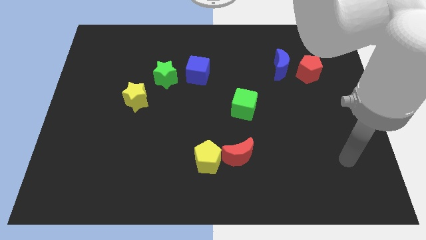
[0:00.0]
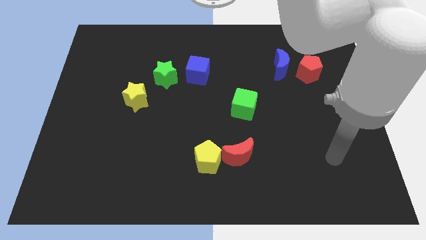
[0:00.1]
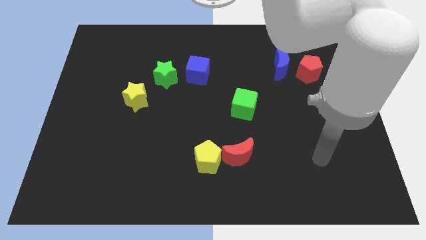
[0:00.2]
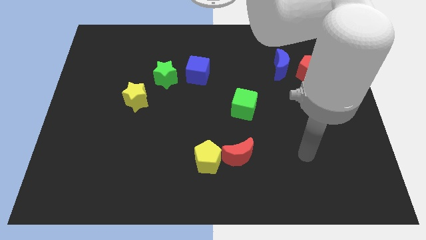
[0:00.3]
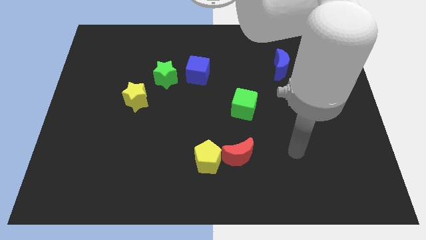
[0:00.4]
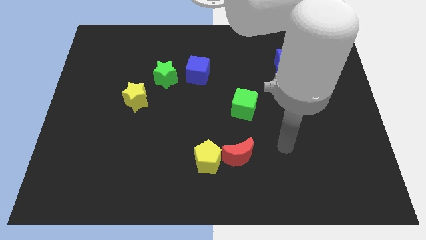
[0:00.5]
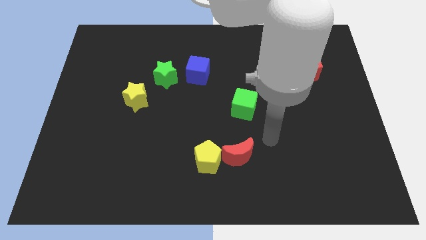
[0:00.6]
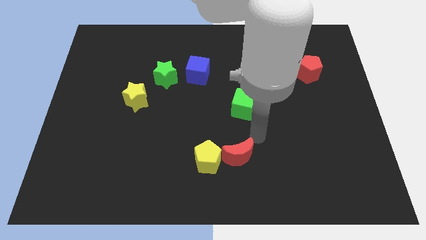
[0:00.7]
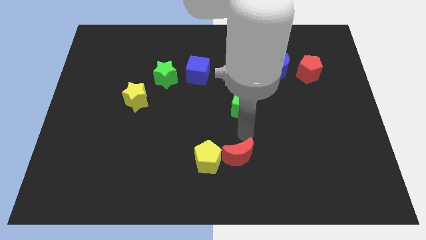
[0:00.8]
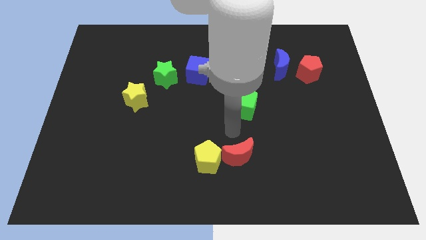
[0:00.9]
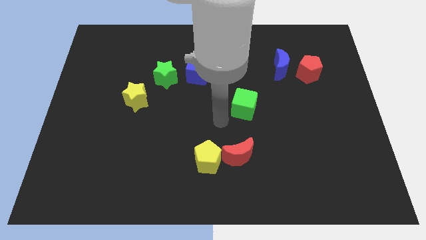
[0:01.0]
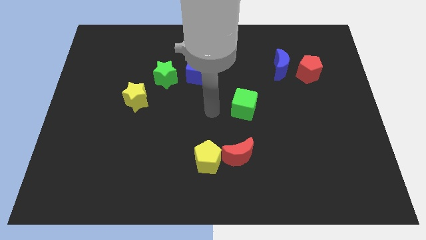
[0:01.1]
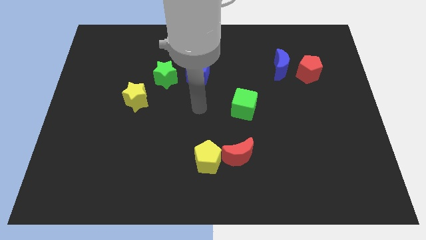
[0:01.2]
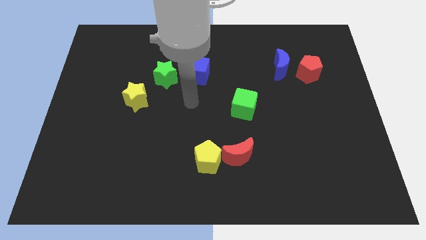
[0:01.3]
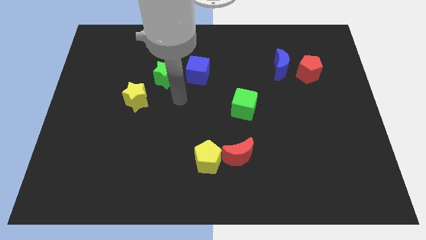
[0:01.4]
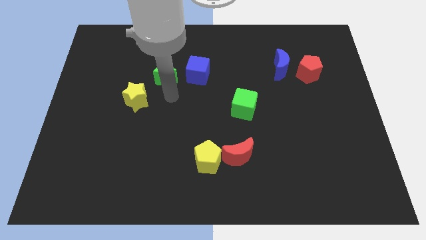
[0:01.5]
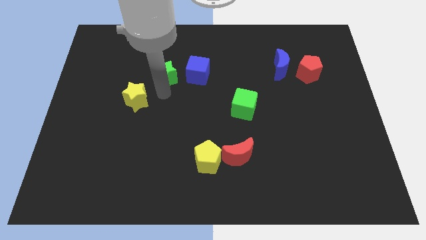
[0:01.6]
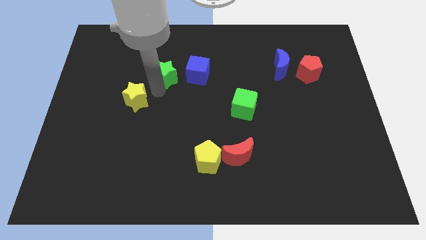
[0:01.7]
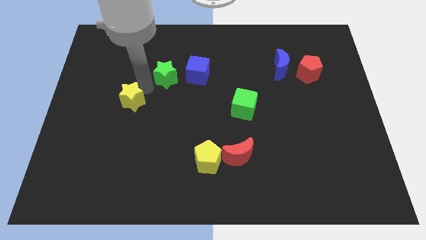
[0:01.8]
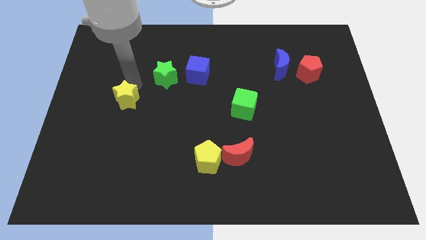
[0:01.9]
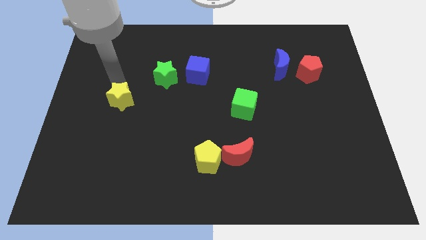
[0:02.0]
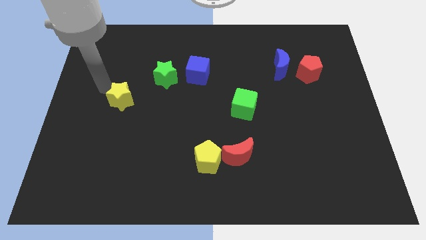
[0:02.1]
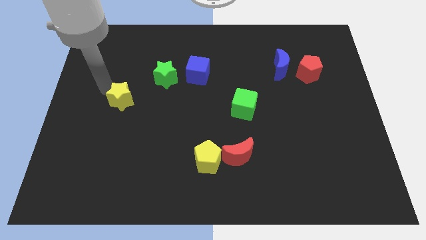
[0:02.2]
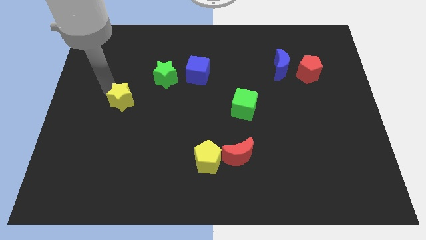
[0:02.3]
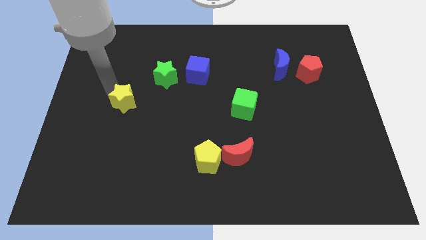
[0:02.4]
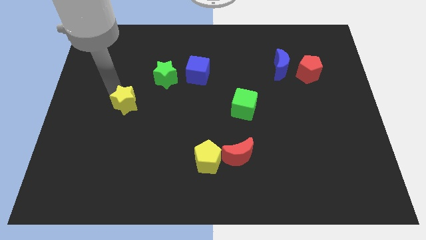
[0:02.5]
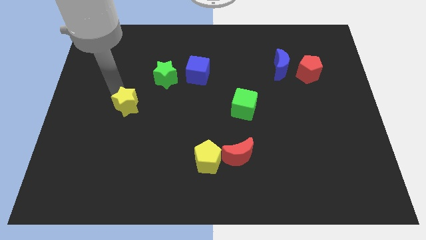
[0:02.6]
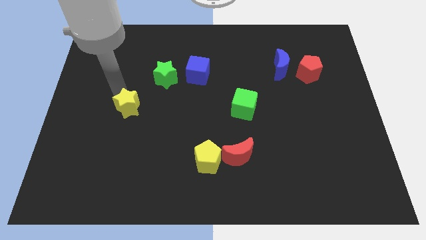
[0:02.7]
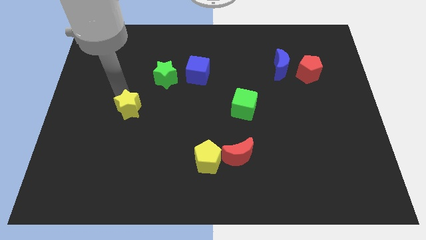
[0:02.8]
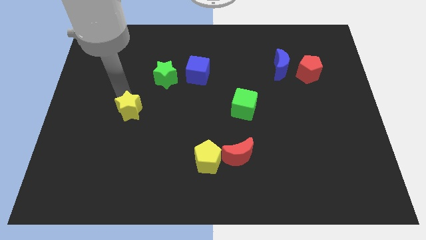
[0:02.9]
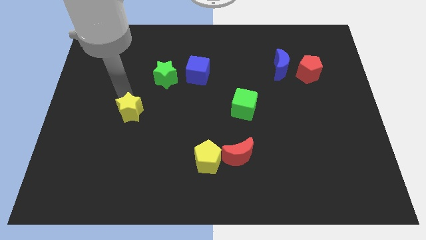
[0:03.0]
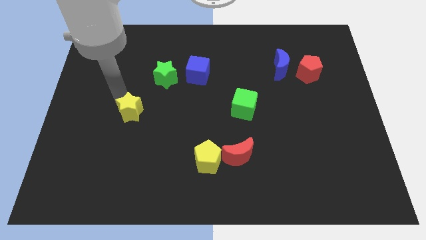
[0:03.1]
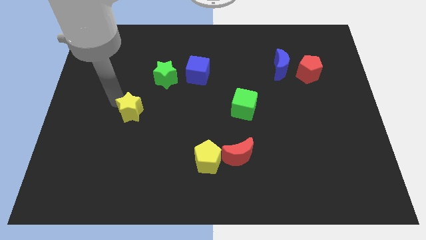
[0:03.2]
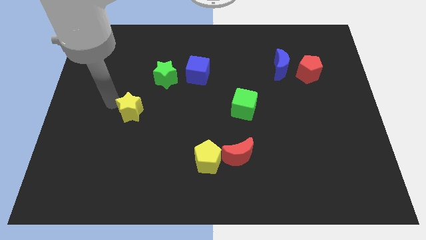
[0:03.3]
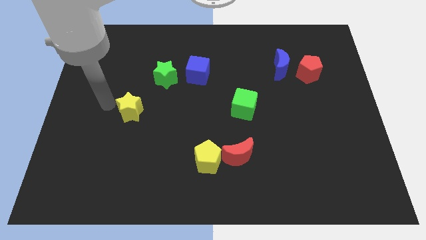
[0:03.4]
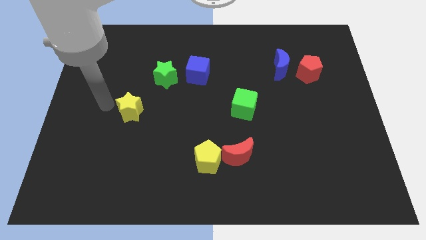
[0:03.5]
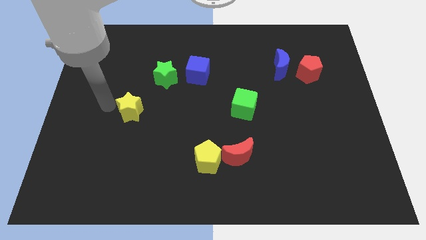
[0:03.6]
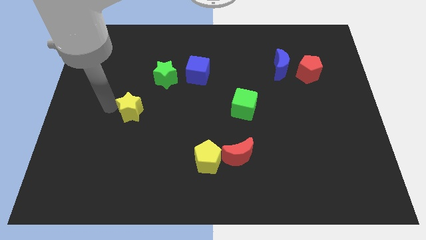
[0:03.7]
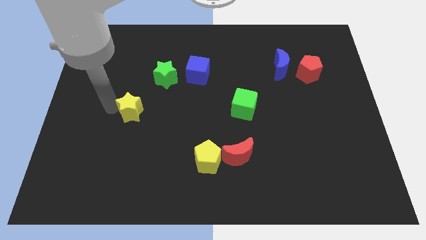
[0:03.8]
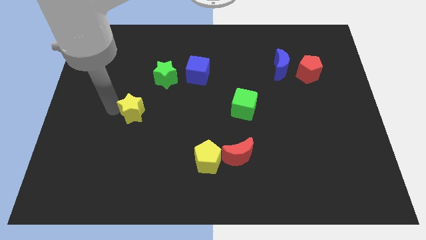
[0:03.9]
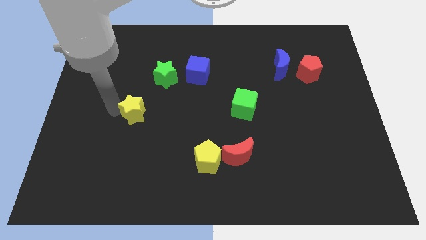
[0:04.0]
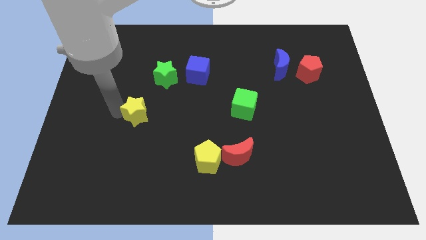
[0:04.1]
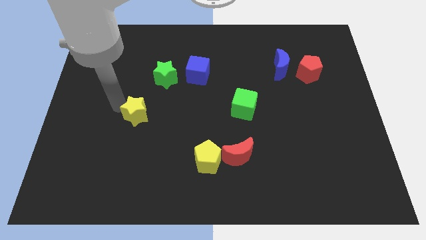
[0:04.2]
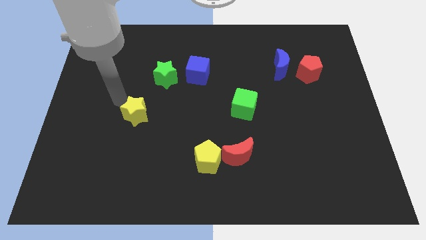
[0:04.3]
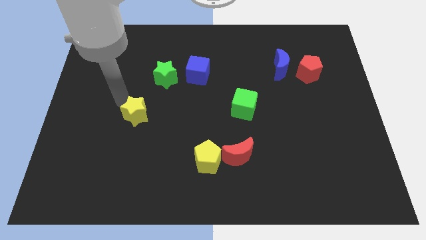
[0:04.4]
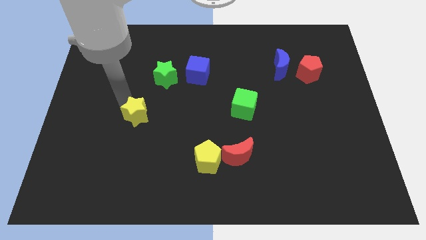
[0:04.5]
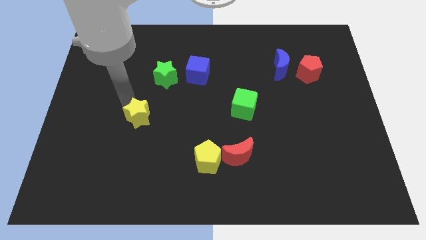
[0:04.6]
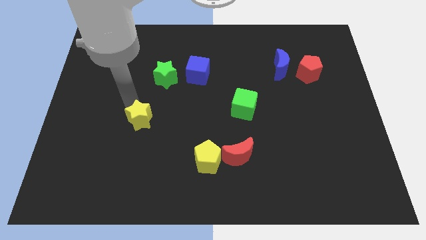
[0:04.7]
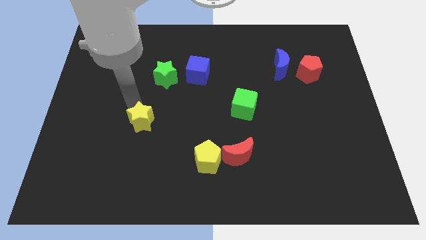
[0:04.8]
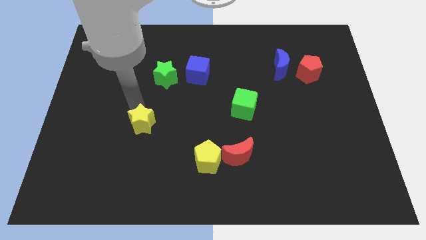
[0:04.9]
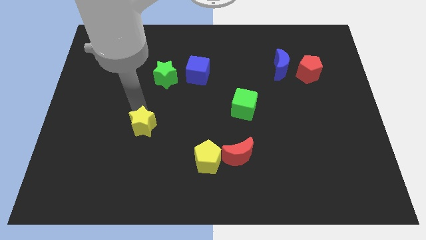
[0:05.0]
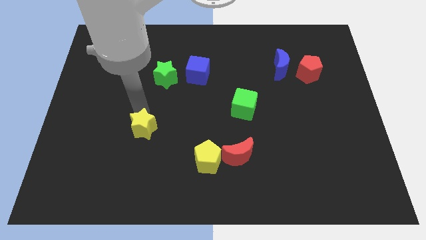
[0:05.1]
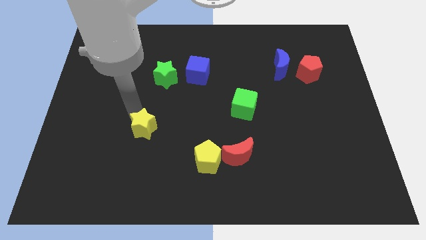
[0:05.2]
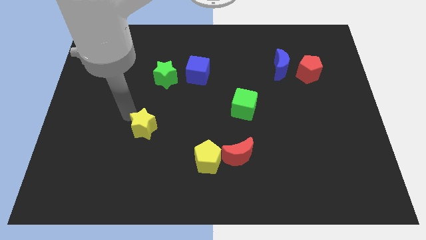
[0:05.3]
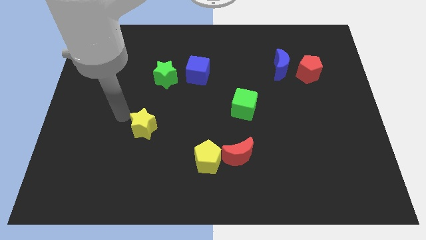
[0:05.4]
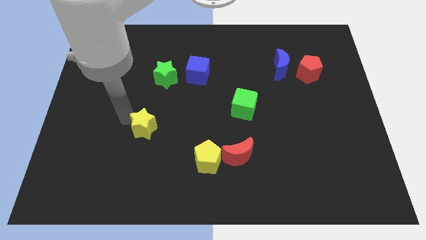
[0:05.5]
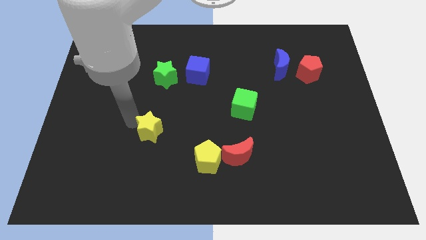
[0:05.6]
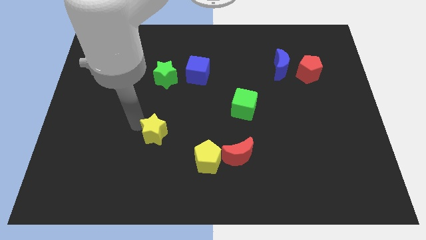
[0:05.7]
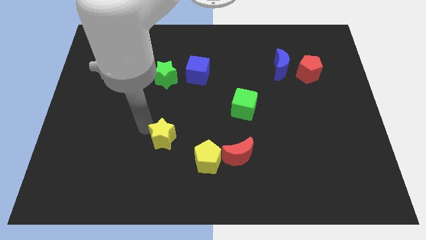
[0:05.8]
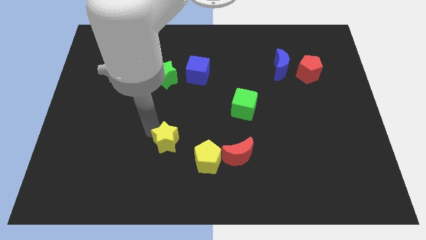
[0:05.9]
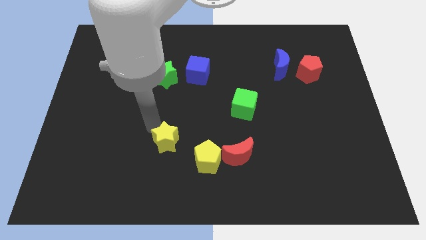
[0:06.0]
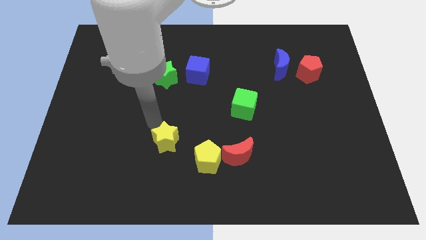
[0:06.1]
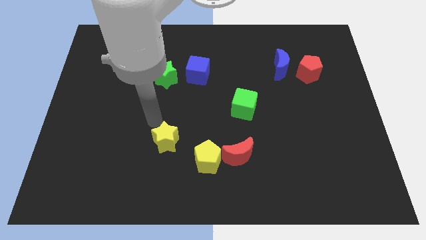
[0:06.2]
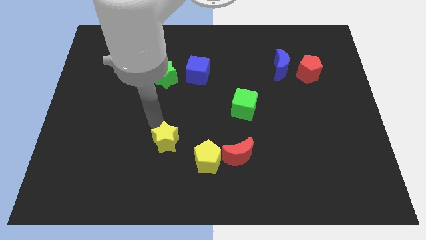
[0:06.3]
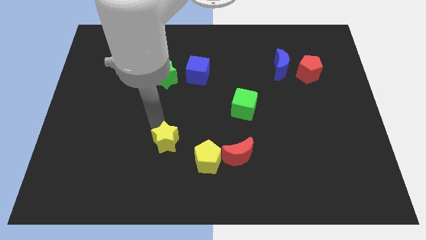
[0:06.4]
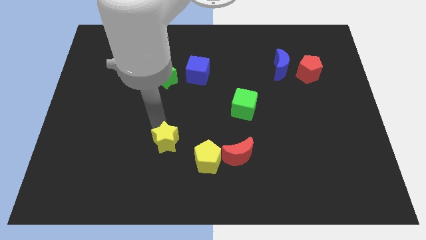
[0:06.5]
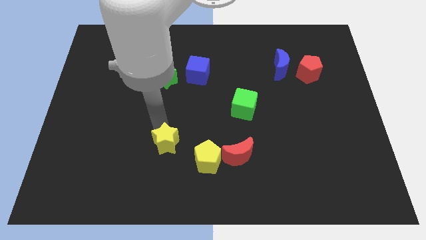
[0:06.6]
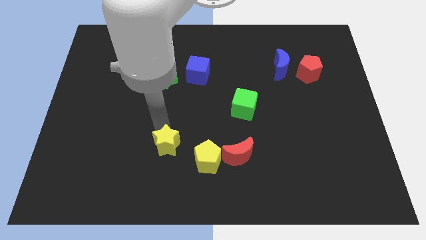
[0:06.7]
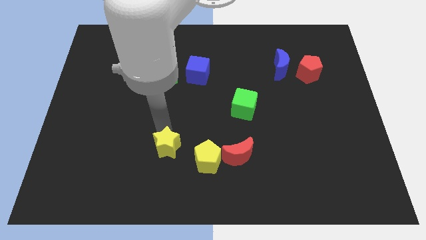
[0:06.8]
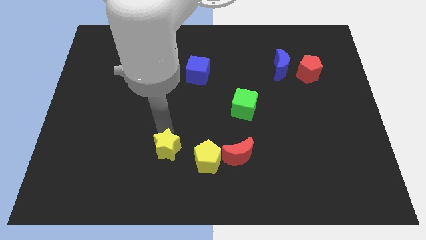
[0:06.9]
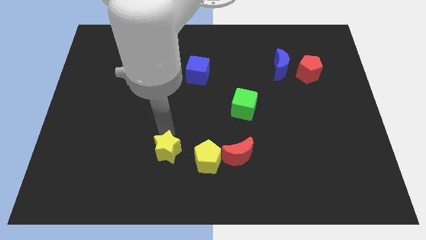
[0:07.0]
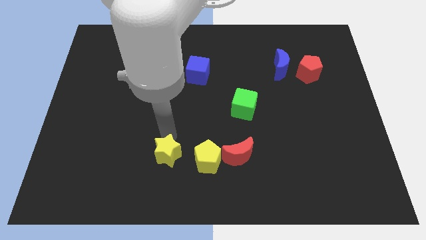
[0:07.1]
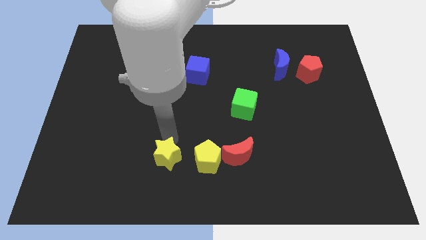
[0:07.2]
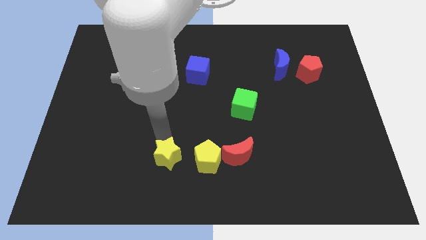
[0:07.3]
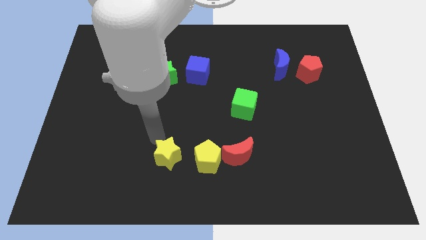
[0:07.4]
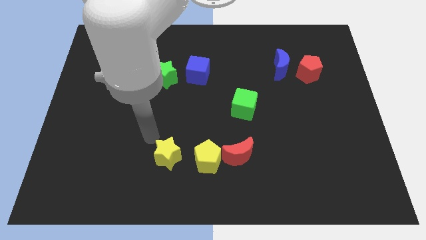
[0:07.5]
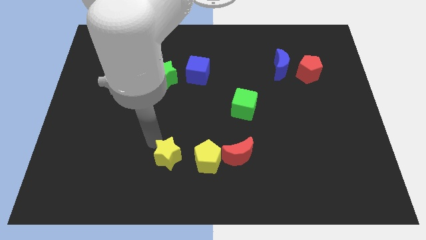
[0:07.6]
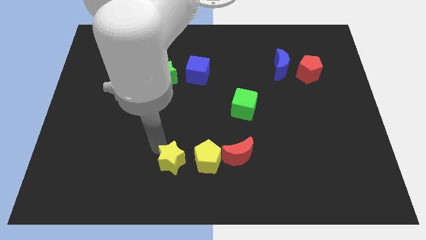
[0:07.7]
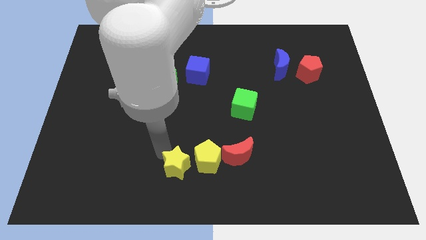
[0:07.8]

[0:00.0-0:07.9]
move the yellow star to the bottom side
